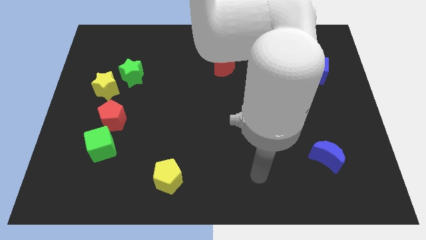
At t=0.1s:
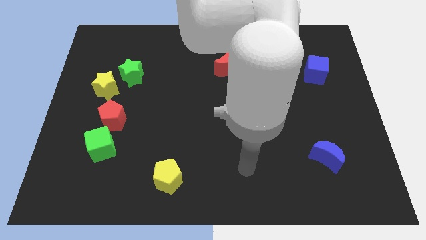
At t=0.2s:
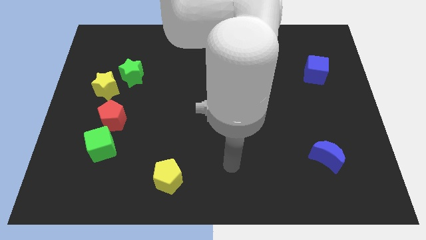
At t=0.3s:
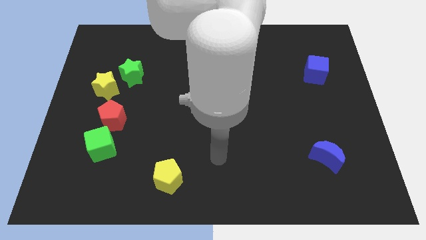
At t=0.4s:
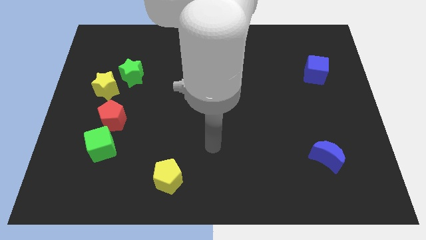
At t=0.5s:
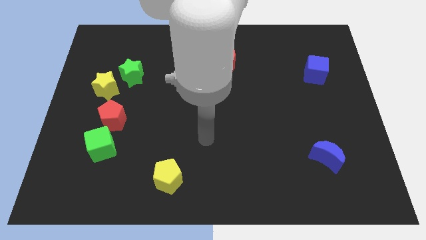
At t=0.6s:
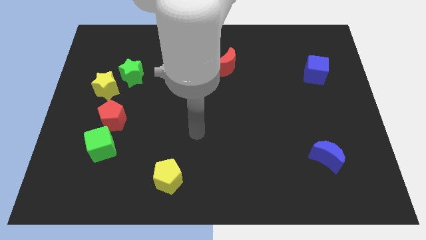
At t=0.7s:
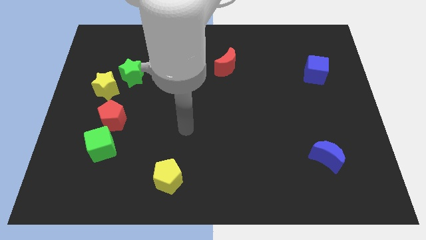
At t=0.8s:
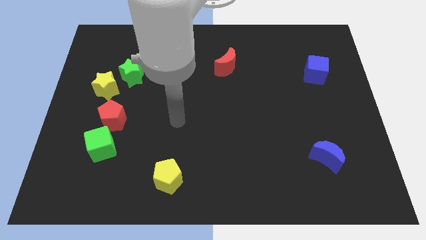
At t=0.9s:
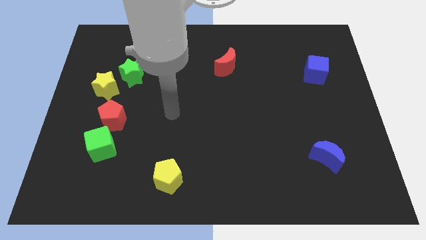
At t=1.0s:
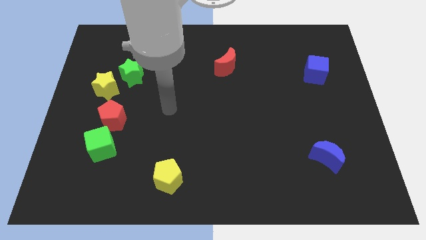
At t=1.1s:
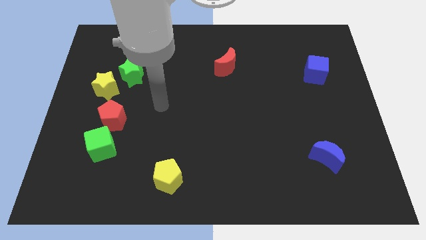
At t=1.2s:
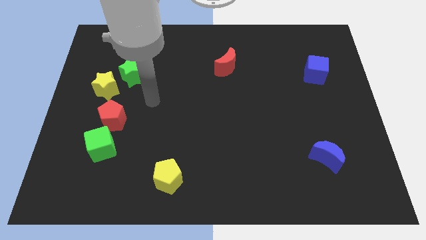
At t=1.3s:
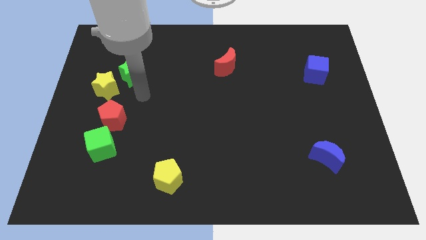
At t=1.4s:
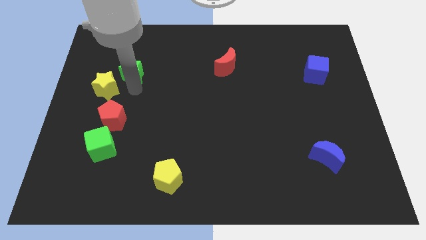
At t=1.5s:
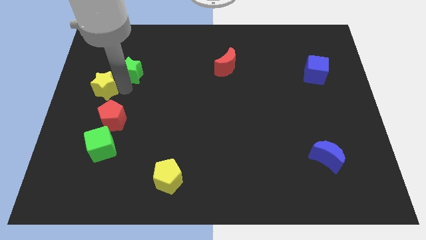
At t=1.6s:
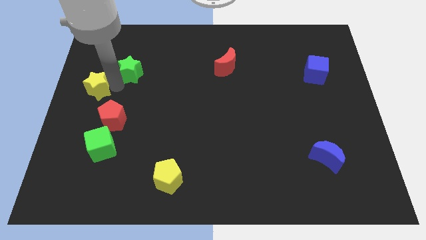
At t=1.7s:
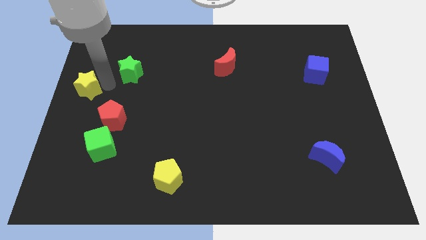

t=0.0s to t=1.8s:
pull the green star apart from the yellow star

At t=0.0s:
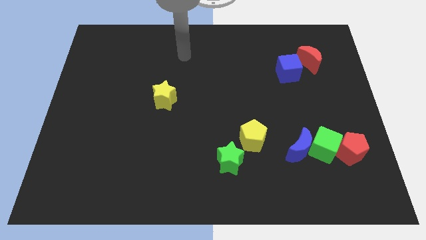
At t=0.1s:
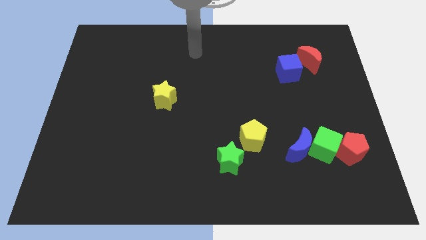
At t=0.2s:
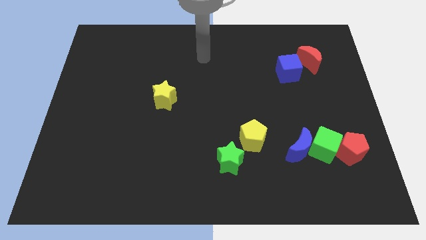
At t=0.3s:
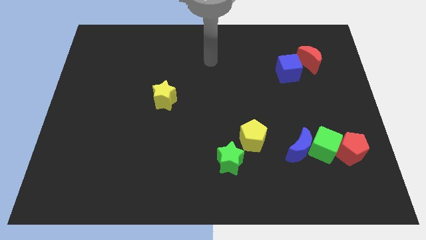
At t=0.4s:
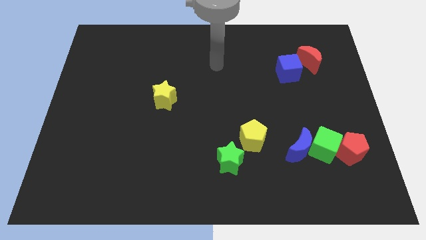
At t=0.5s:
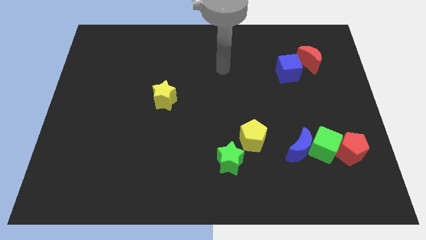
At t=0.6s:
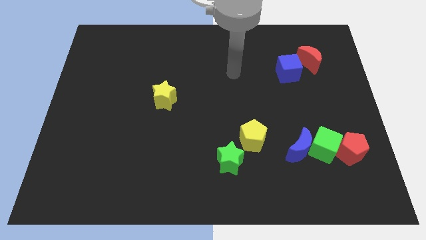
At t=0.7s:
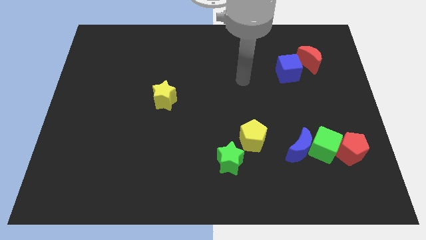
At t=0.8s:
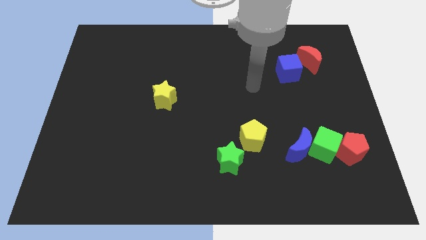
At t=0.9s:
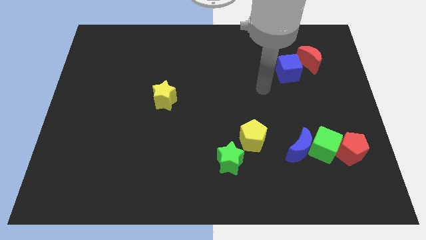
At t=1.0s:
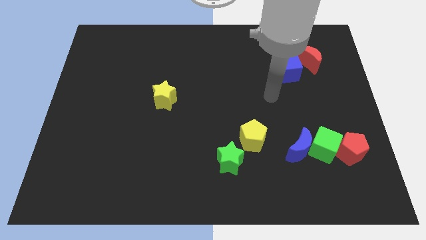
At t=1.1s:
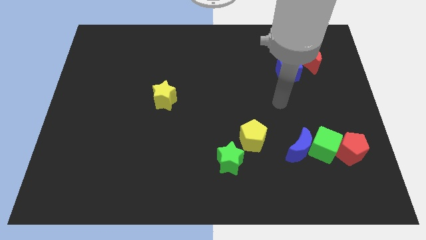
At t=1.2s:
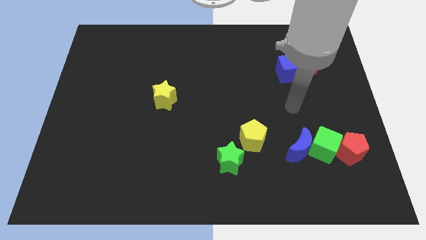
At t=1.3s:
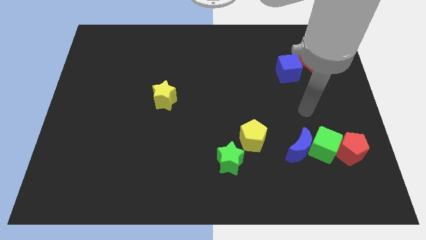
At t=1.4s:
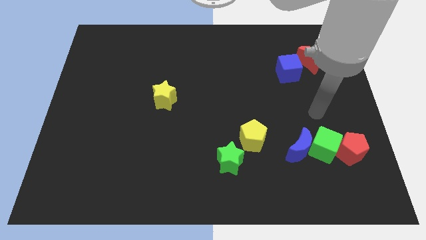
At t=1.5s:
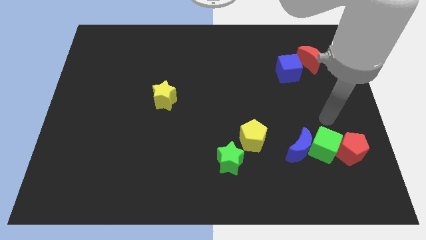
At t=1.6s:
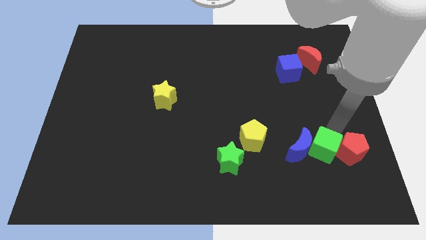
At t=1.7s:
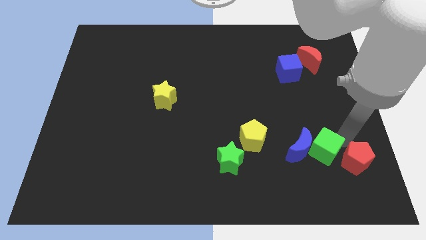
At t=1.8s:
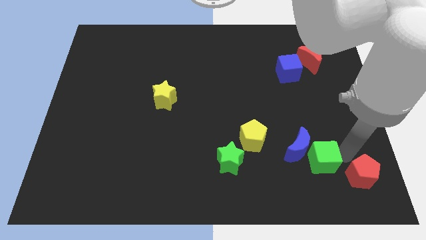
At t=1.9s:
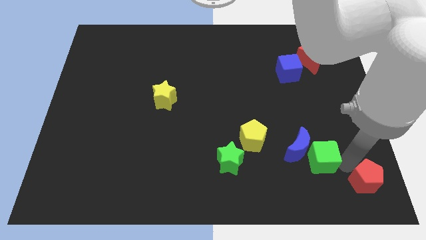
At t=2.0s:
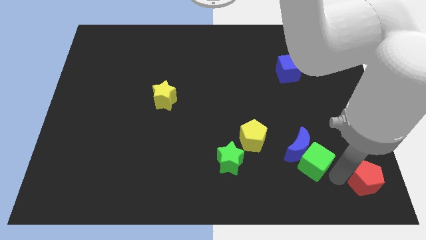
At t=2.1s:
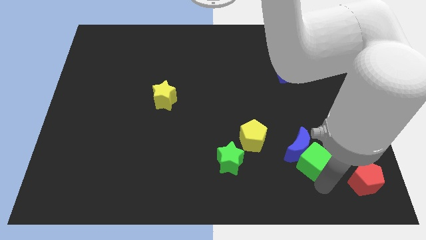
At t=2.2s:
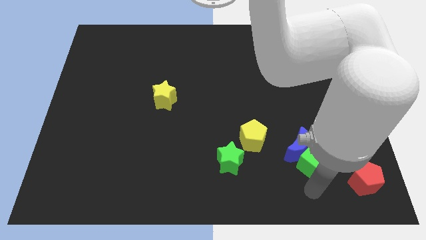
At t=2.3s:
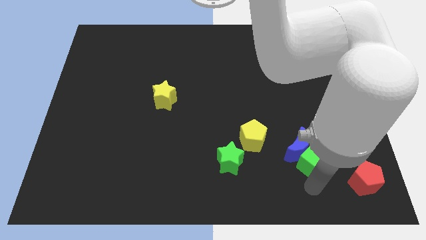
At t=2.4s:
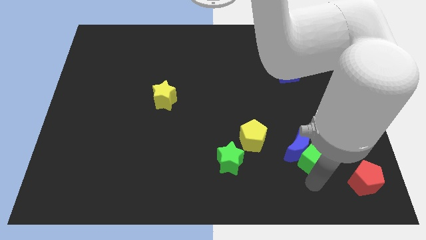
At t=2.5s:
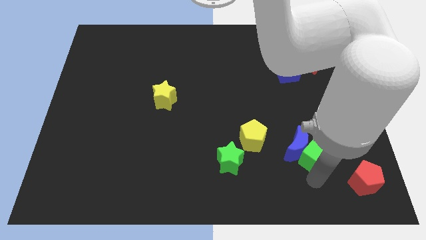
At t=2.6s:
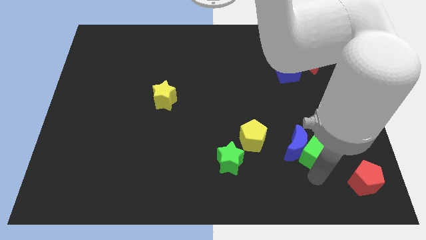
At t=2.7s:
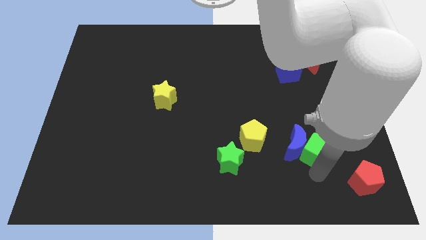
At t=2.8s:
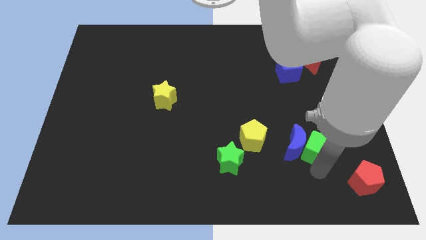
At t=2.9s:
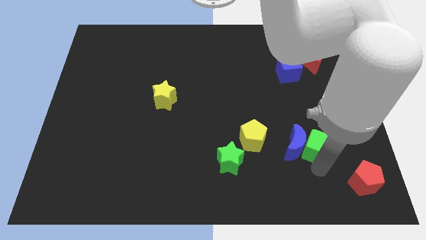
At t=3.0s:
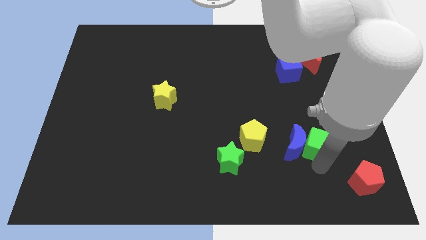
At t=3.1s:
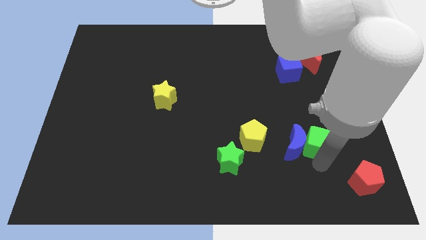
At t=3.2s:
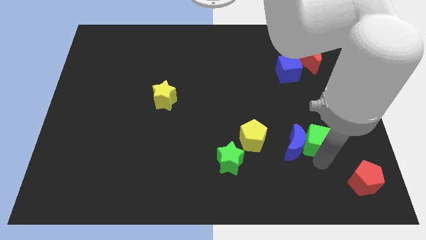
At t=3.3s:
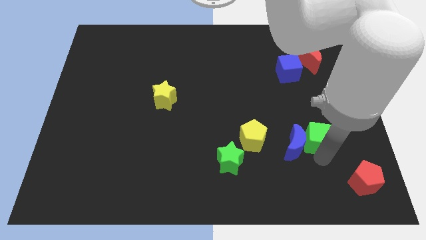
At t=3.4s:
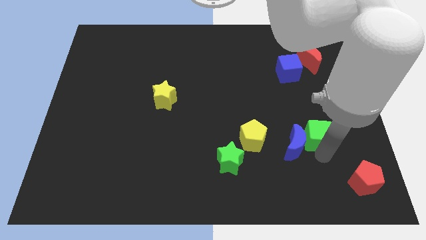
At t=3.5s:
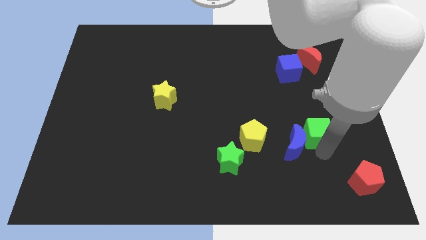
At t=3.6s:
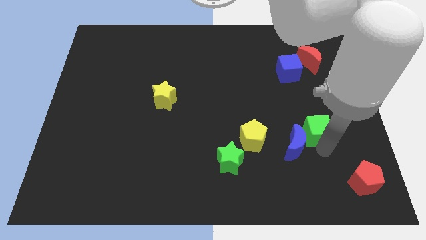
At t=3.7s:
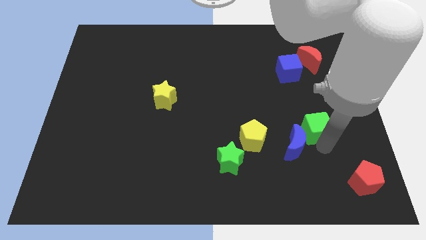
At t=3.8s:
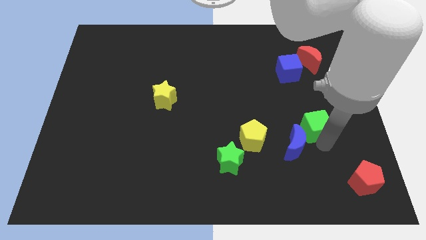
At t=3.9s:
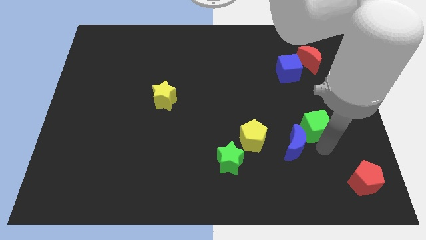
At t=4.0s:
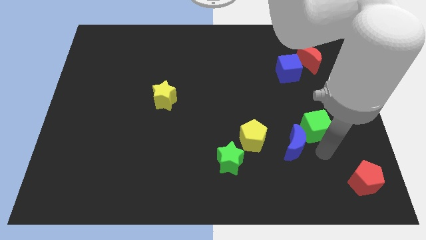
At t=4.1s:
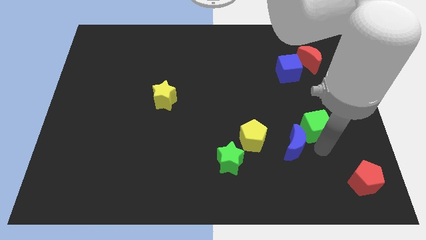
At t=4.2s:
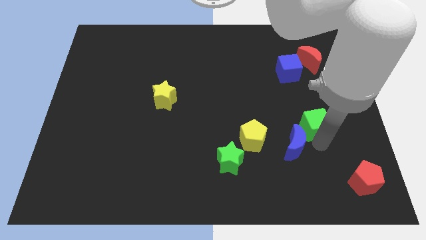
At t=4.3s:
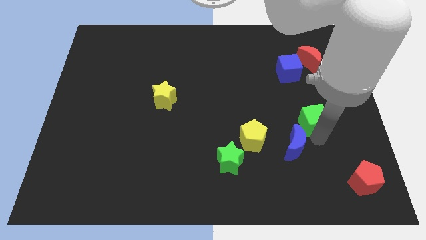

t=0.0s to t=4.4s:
separate the green cube from the blue moon and red pentagon

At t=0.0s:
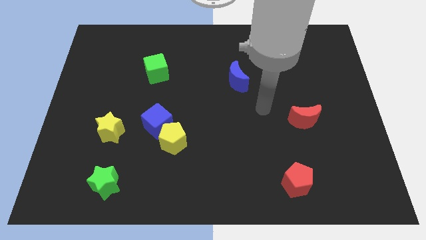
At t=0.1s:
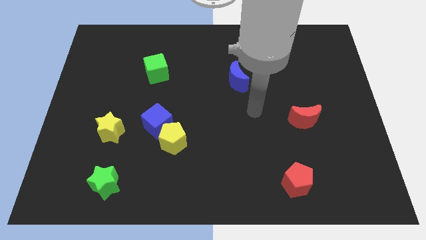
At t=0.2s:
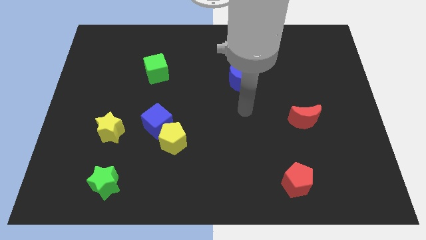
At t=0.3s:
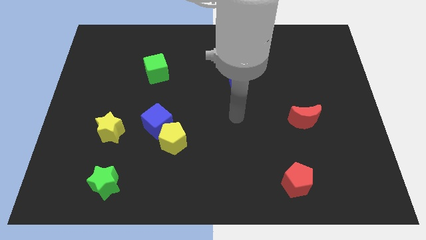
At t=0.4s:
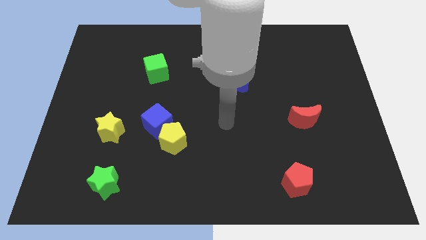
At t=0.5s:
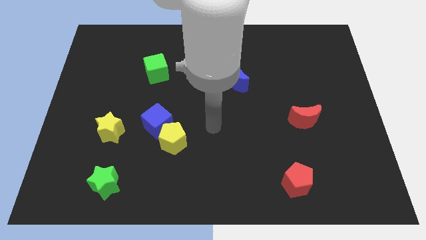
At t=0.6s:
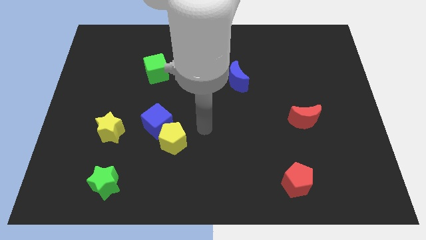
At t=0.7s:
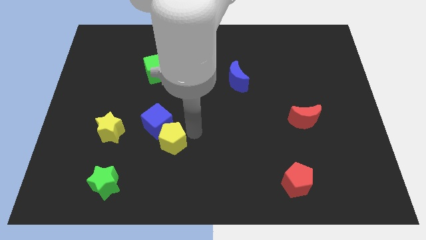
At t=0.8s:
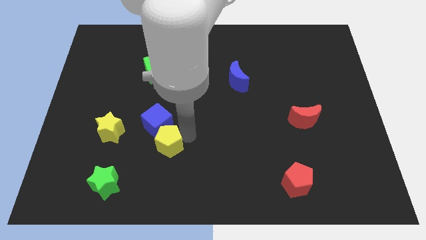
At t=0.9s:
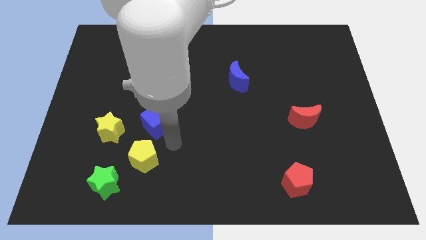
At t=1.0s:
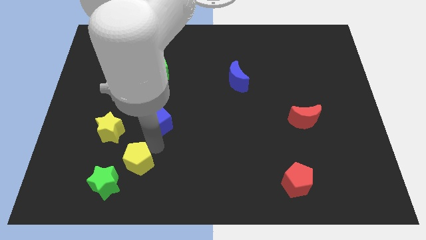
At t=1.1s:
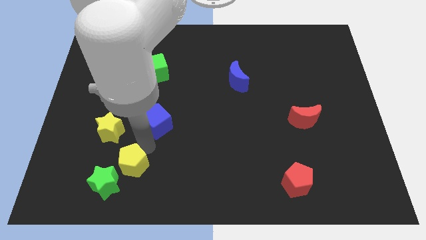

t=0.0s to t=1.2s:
separate the blue cube from the yellow pentagon

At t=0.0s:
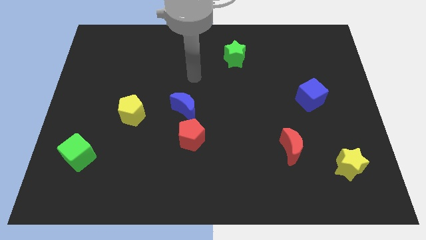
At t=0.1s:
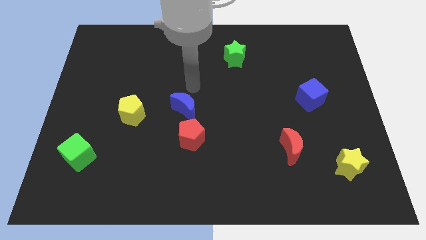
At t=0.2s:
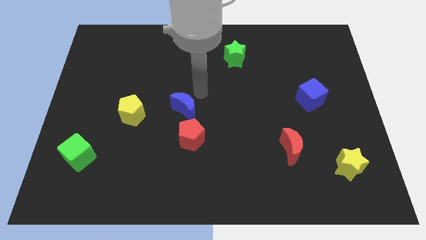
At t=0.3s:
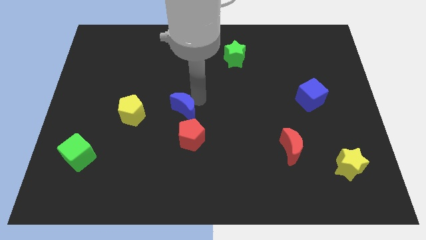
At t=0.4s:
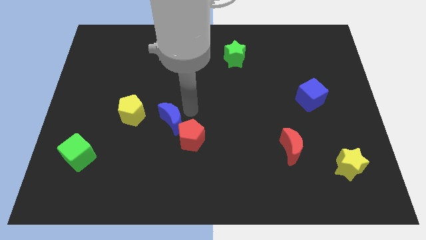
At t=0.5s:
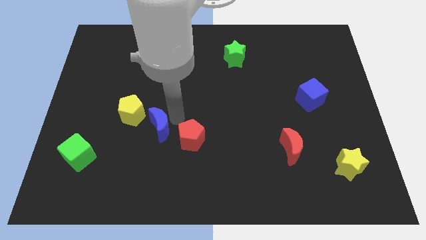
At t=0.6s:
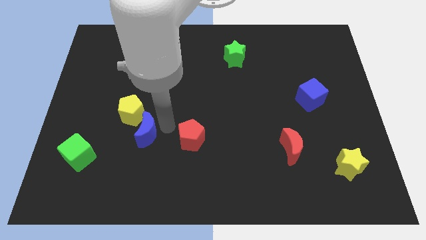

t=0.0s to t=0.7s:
move the red pentagon away from the blue moon

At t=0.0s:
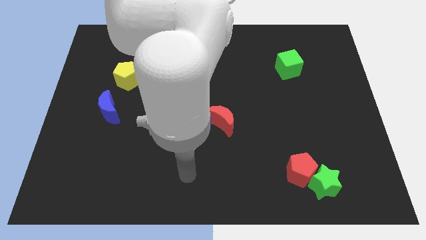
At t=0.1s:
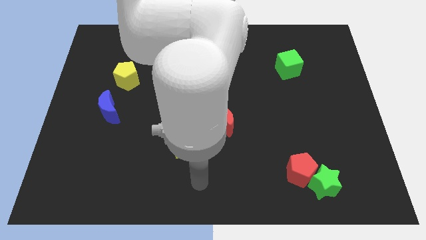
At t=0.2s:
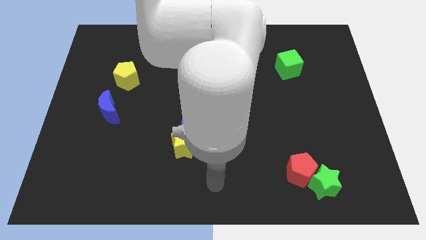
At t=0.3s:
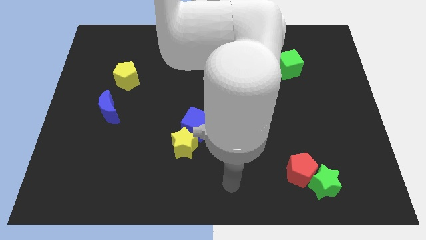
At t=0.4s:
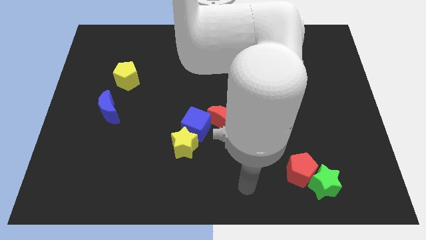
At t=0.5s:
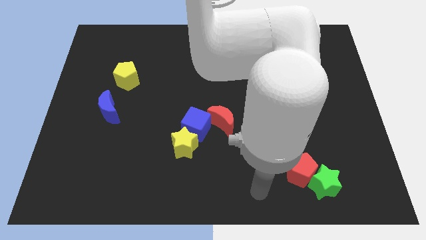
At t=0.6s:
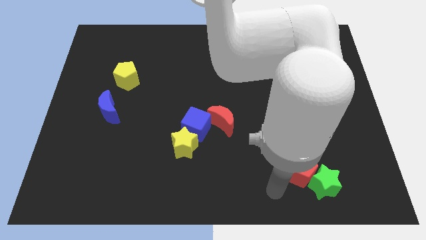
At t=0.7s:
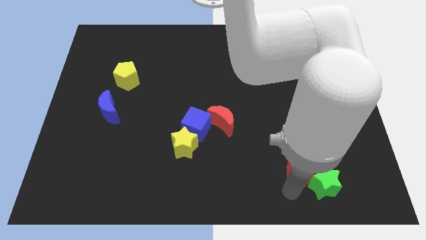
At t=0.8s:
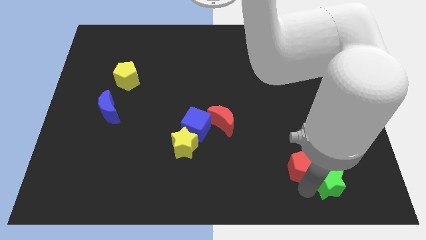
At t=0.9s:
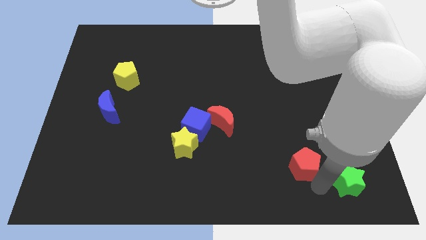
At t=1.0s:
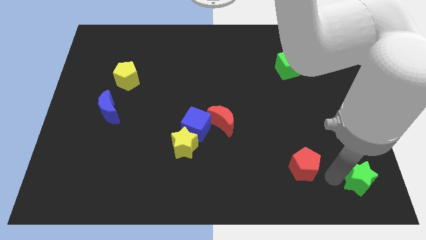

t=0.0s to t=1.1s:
separate the red pentagon from the green star

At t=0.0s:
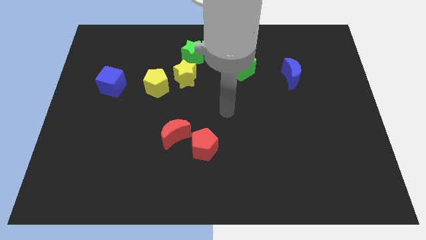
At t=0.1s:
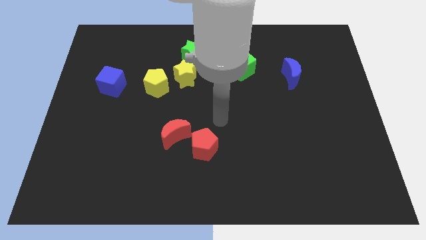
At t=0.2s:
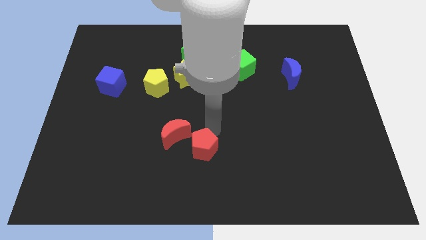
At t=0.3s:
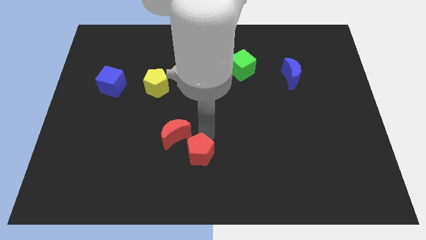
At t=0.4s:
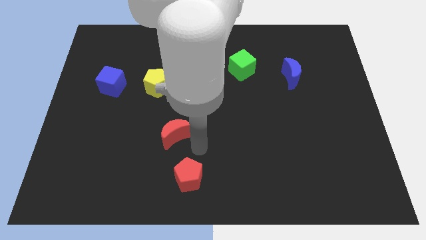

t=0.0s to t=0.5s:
pull the red moon apart from the red pentagon
